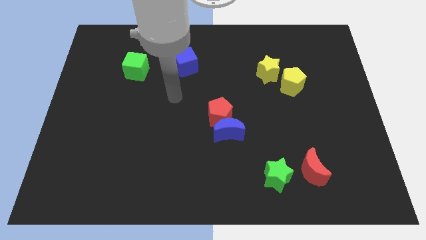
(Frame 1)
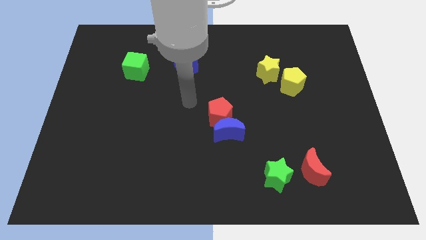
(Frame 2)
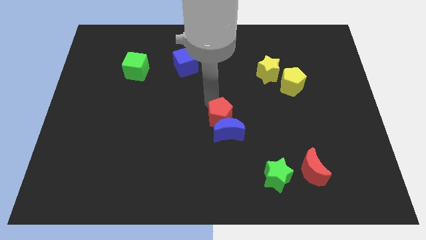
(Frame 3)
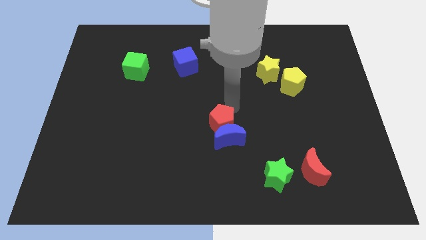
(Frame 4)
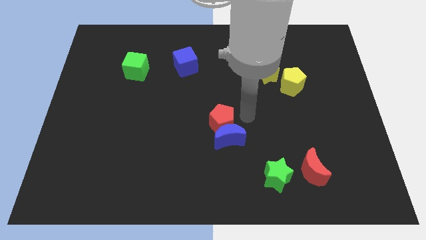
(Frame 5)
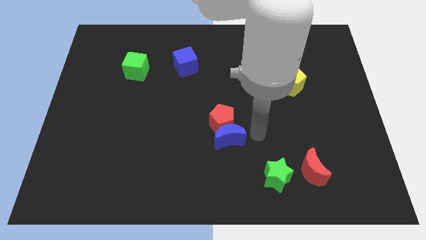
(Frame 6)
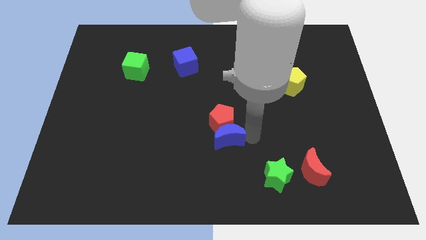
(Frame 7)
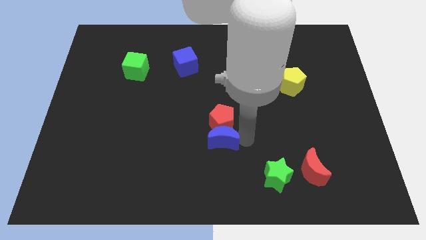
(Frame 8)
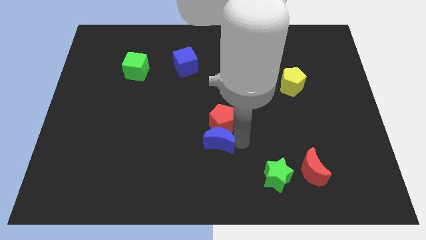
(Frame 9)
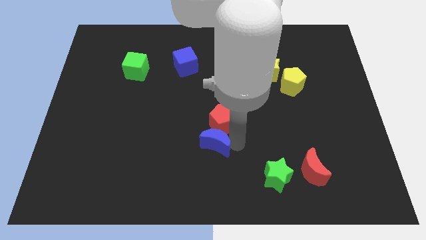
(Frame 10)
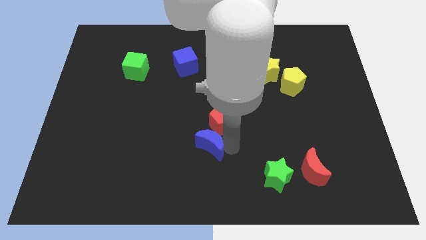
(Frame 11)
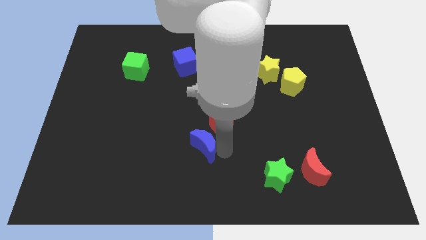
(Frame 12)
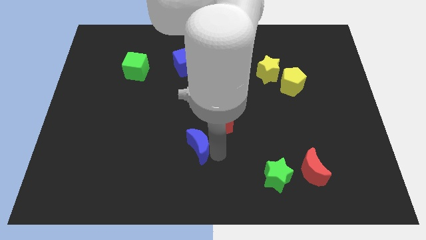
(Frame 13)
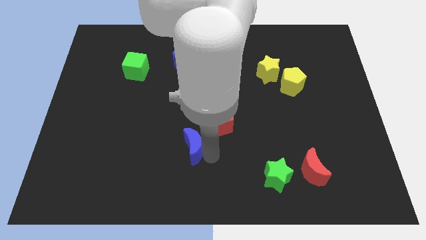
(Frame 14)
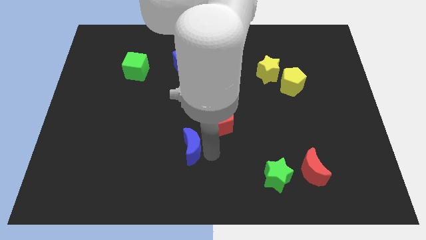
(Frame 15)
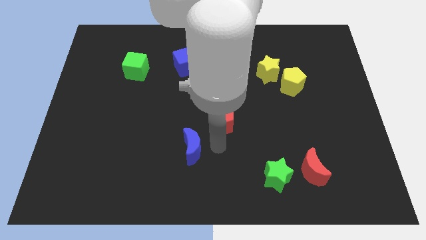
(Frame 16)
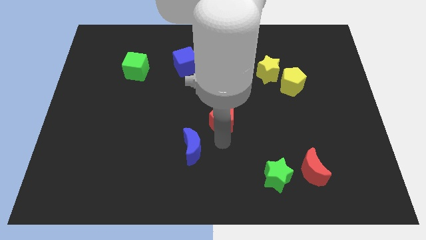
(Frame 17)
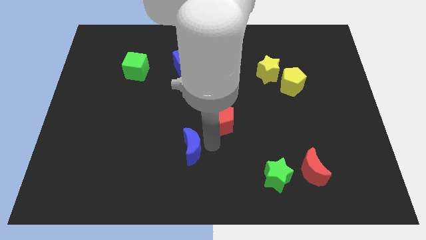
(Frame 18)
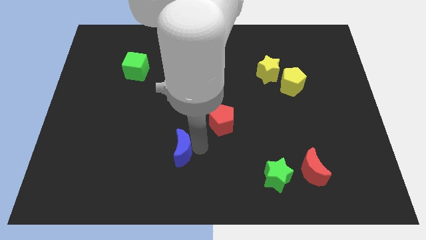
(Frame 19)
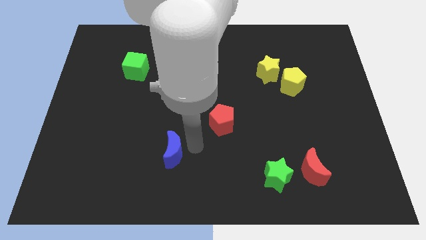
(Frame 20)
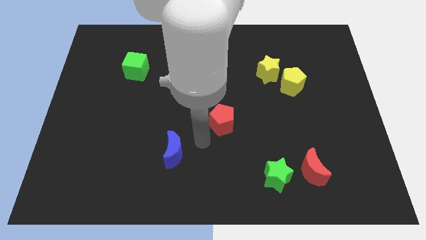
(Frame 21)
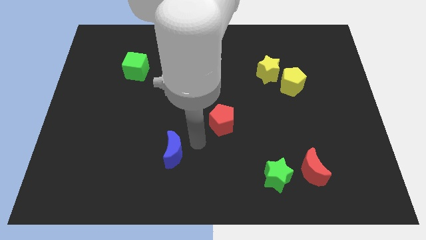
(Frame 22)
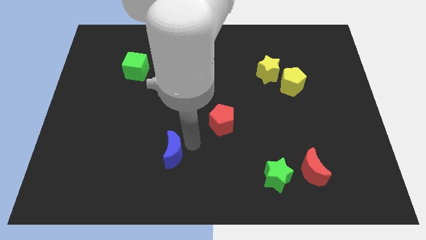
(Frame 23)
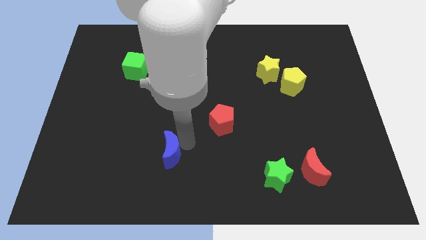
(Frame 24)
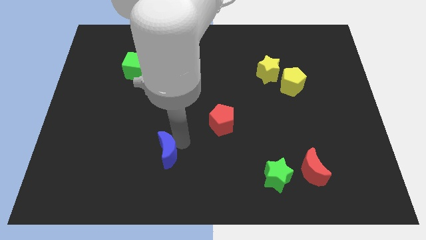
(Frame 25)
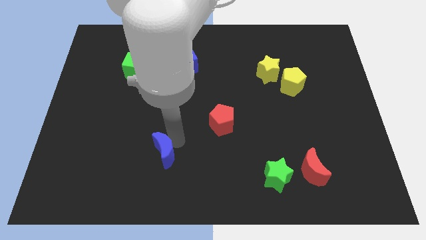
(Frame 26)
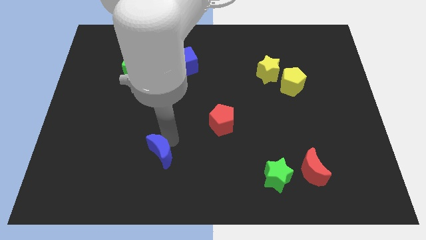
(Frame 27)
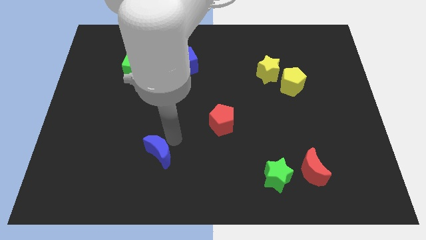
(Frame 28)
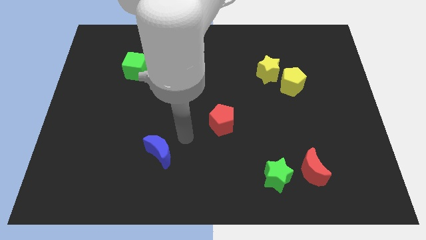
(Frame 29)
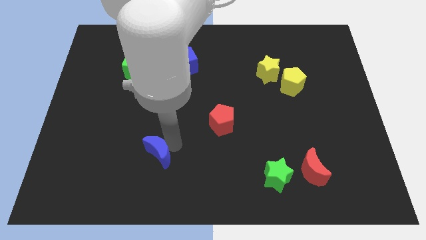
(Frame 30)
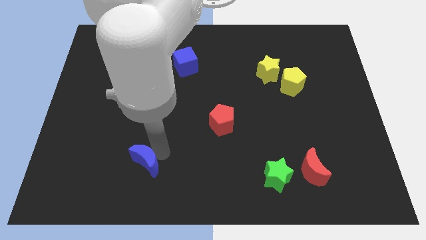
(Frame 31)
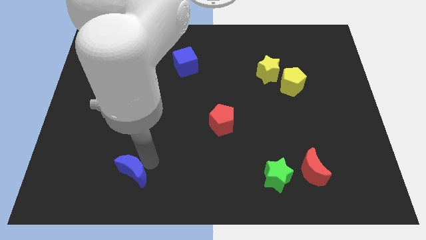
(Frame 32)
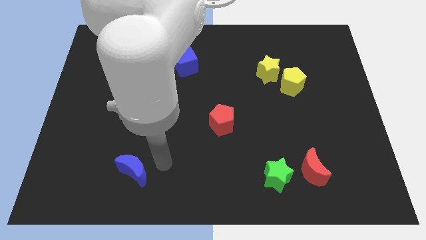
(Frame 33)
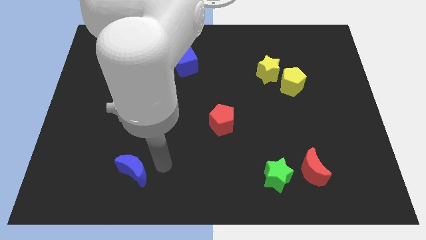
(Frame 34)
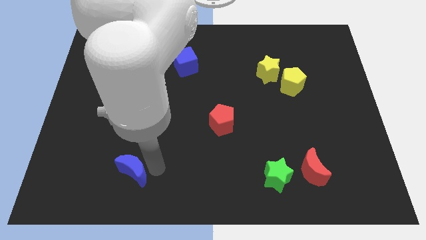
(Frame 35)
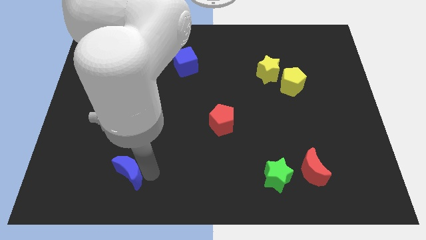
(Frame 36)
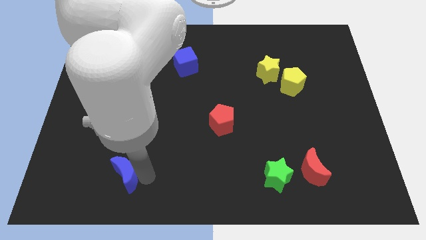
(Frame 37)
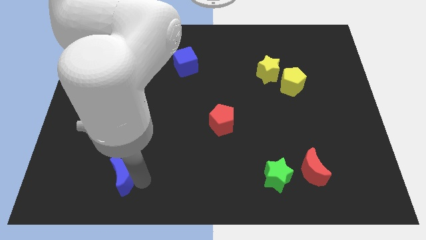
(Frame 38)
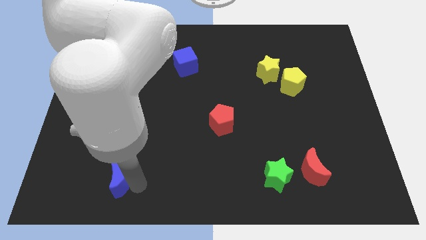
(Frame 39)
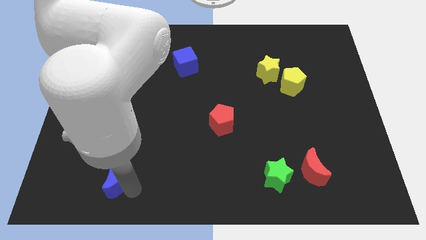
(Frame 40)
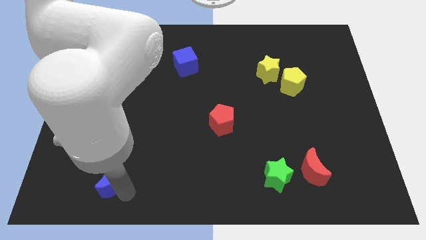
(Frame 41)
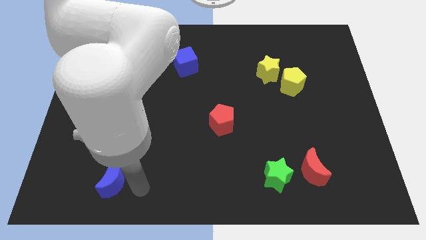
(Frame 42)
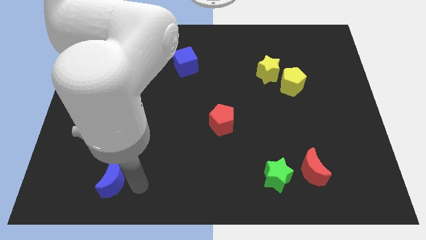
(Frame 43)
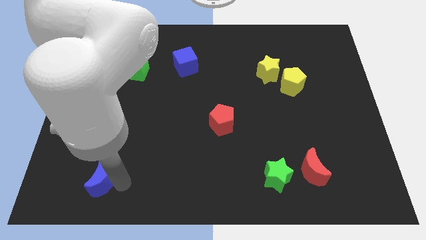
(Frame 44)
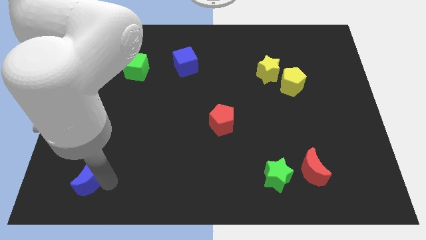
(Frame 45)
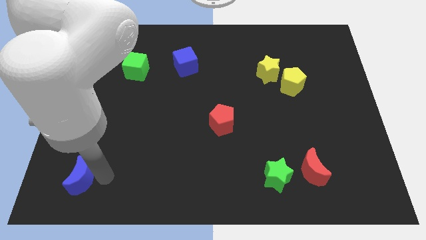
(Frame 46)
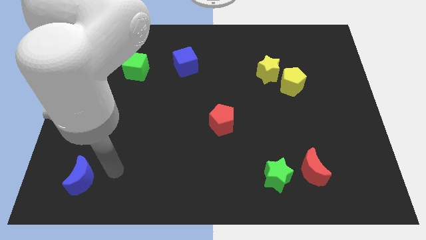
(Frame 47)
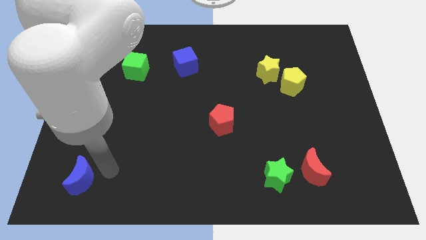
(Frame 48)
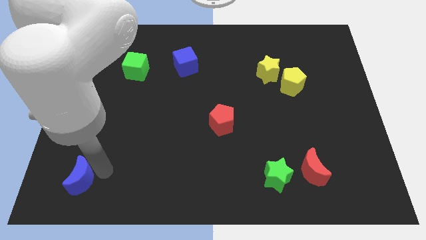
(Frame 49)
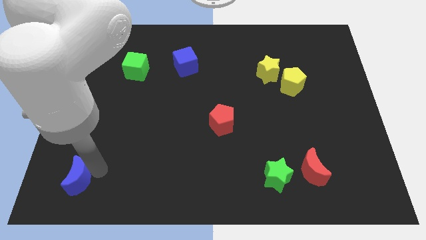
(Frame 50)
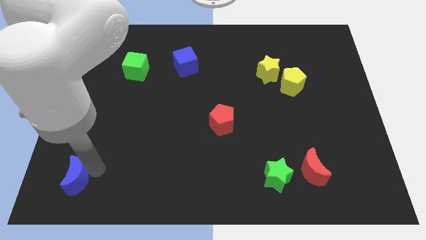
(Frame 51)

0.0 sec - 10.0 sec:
push the blue moon to the bottom left of the board

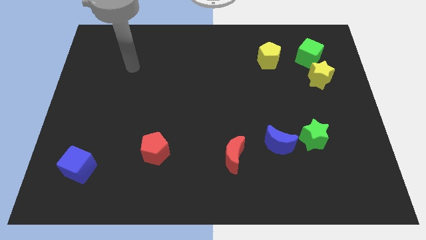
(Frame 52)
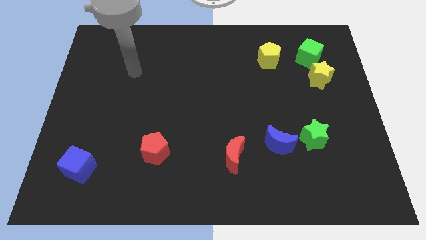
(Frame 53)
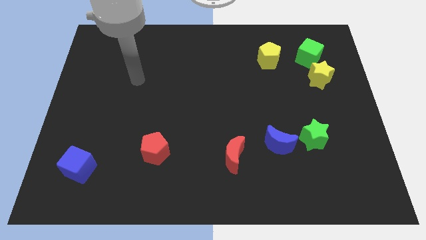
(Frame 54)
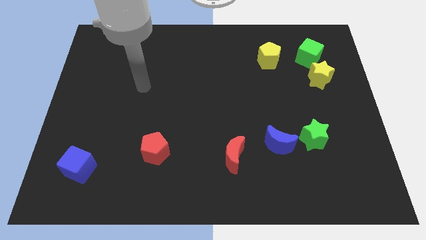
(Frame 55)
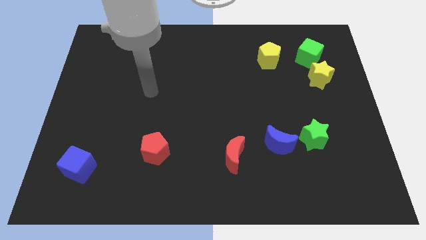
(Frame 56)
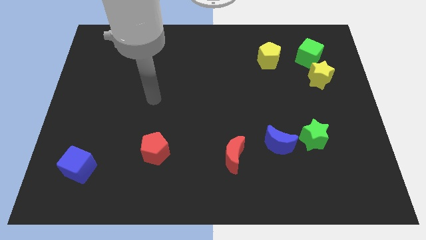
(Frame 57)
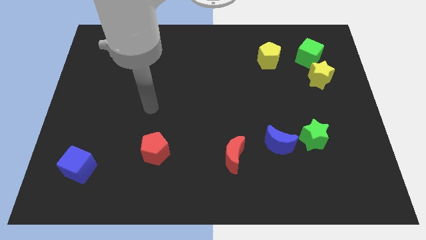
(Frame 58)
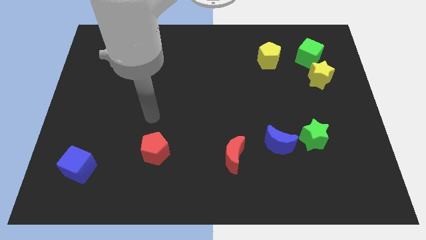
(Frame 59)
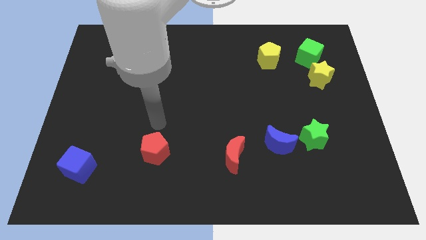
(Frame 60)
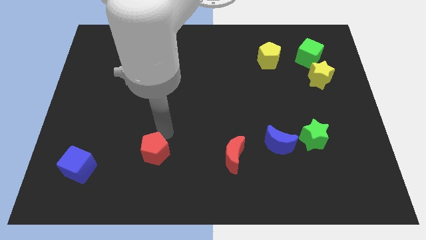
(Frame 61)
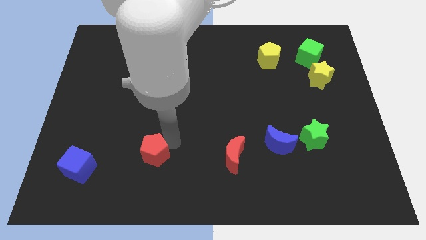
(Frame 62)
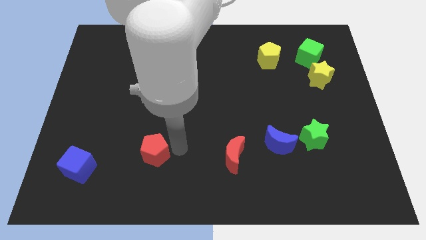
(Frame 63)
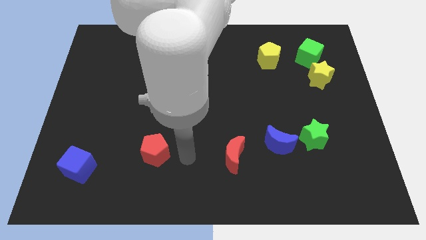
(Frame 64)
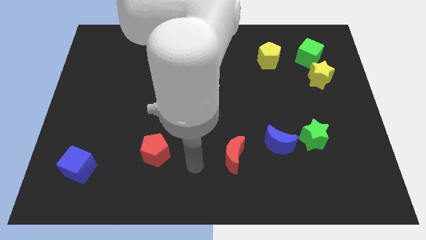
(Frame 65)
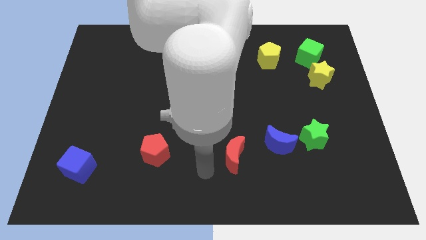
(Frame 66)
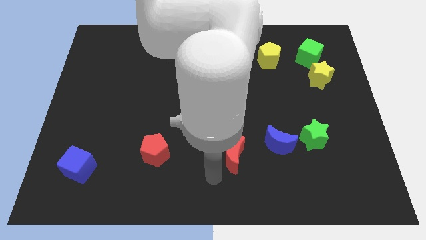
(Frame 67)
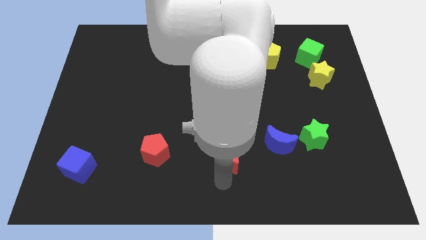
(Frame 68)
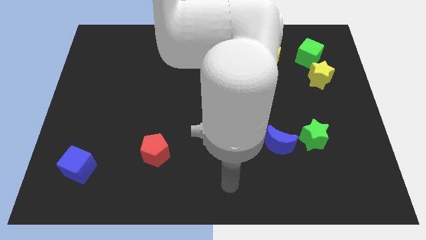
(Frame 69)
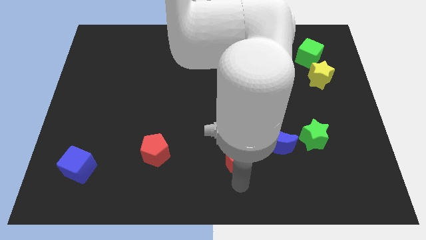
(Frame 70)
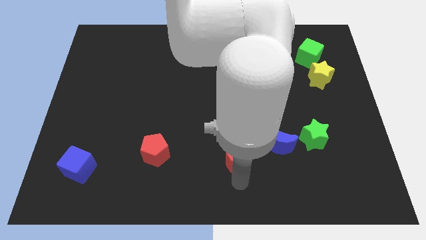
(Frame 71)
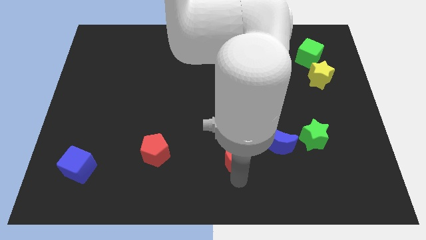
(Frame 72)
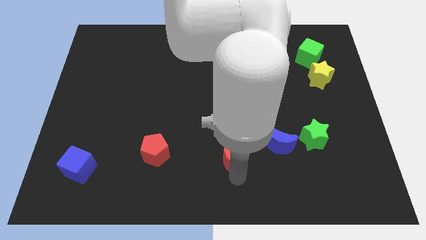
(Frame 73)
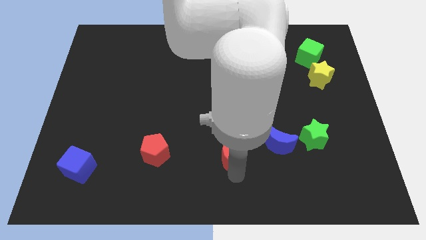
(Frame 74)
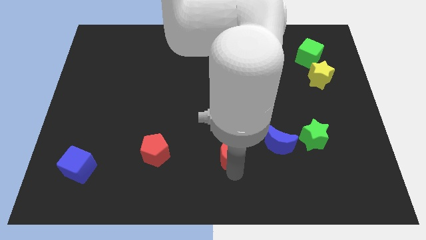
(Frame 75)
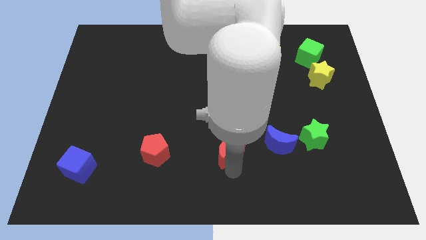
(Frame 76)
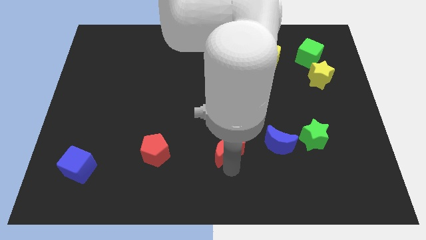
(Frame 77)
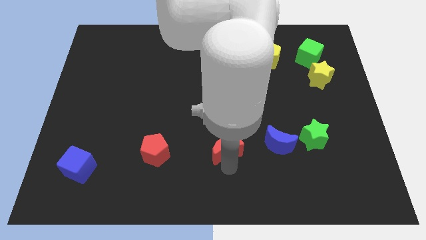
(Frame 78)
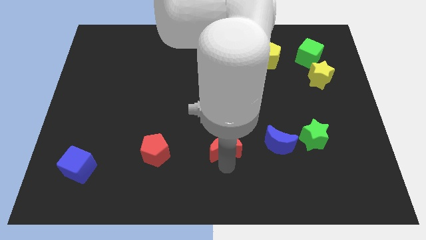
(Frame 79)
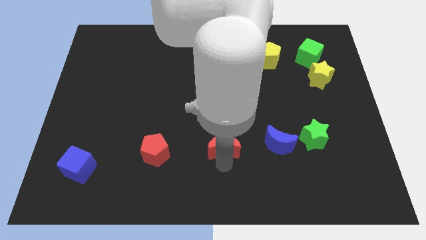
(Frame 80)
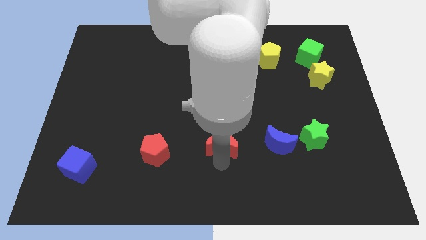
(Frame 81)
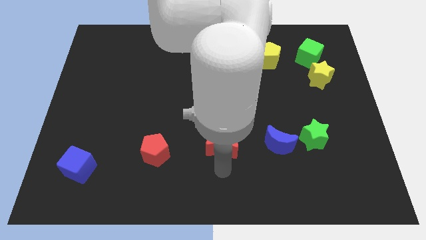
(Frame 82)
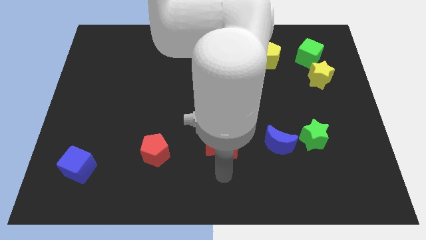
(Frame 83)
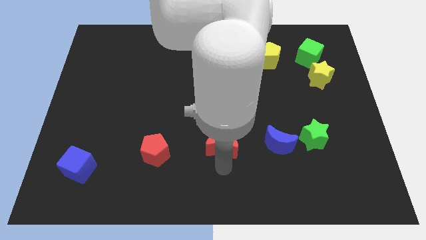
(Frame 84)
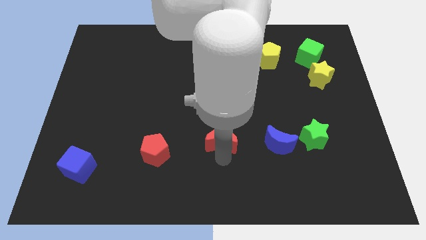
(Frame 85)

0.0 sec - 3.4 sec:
put the red moon to the middle
